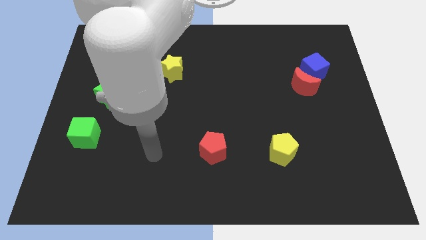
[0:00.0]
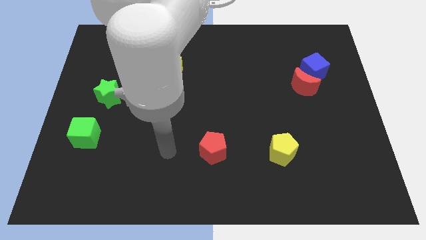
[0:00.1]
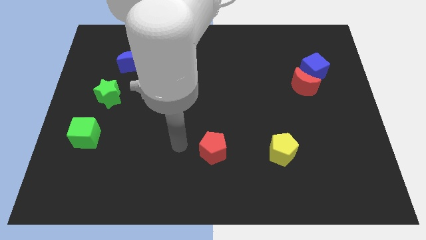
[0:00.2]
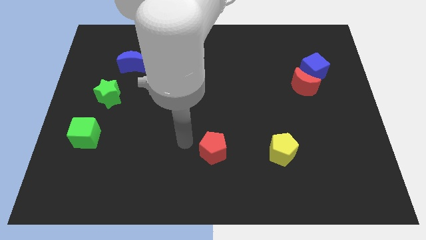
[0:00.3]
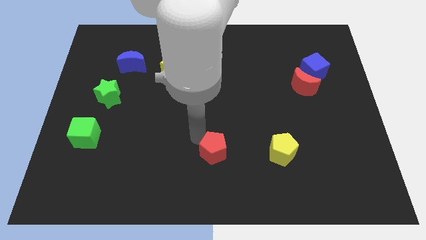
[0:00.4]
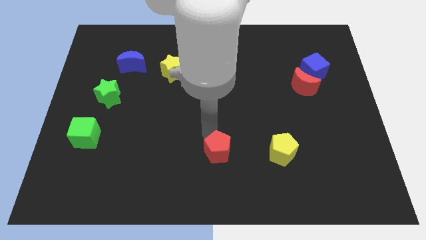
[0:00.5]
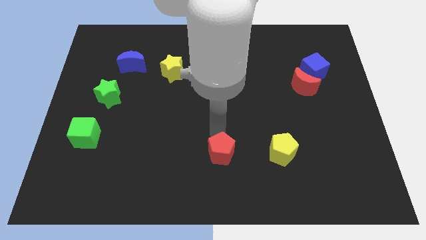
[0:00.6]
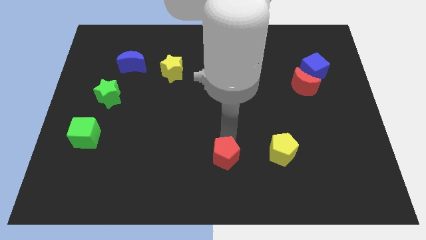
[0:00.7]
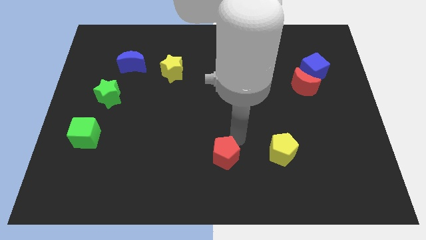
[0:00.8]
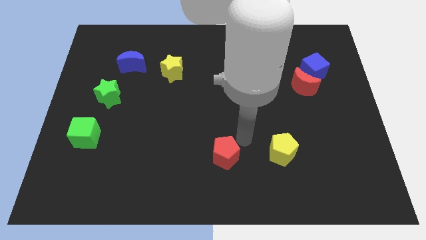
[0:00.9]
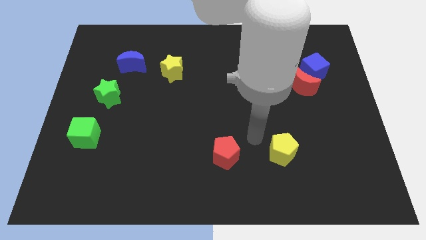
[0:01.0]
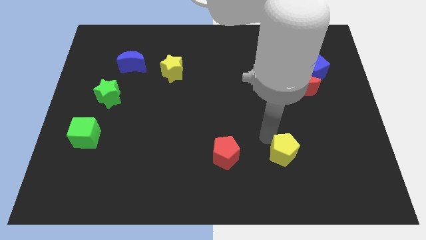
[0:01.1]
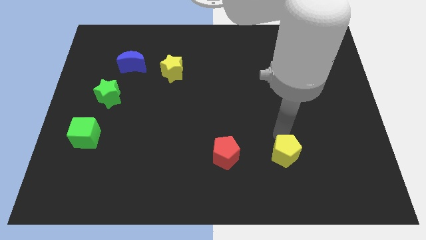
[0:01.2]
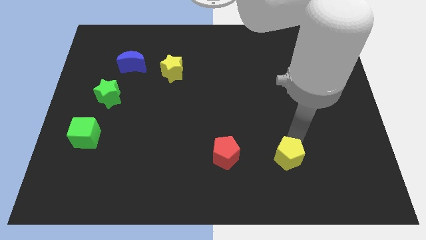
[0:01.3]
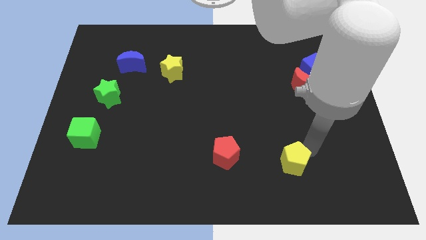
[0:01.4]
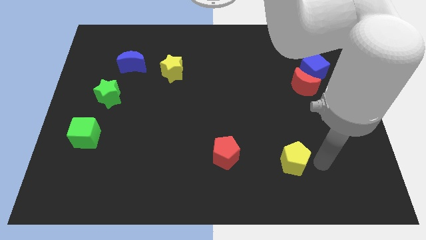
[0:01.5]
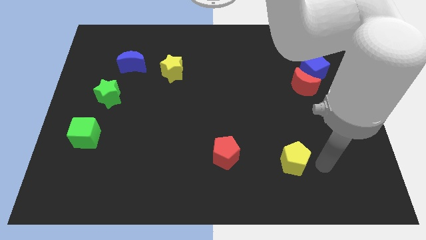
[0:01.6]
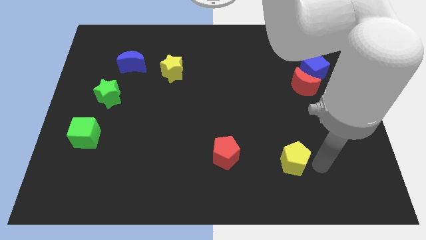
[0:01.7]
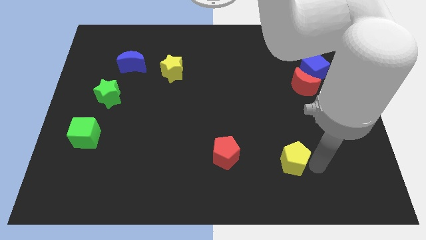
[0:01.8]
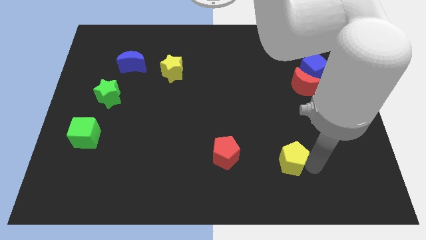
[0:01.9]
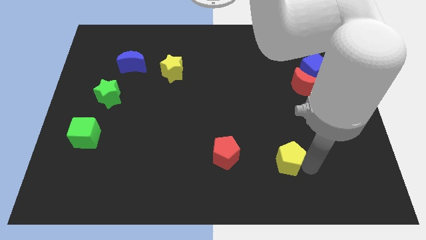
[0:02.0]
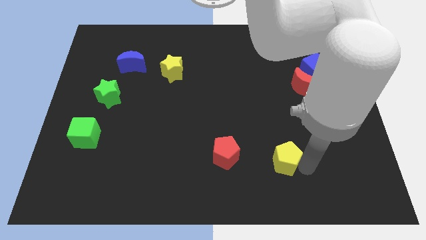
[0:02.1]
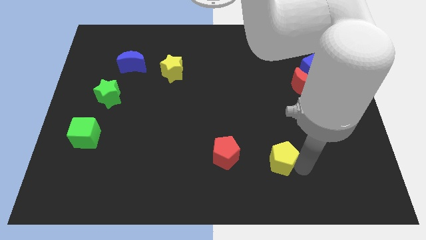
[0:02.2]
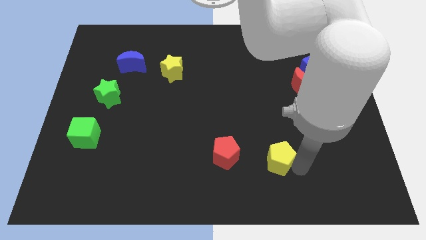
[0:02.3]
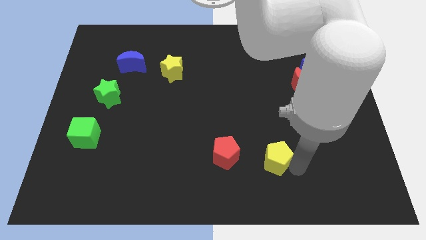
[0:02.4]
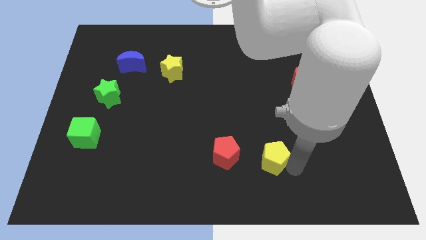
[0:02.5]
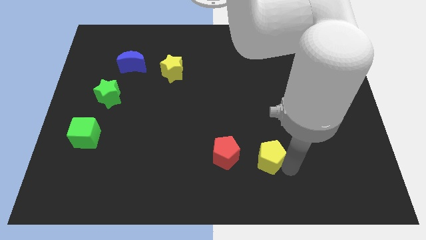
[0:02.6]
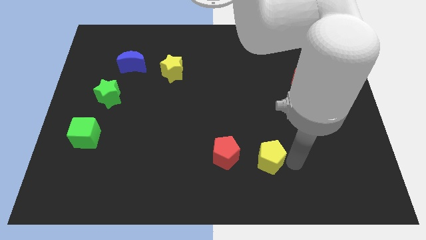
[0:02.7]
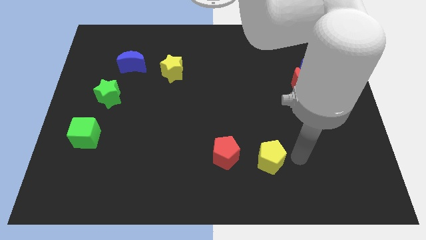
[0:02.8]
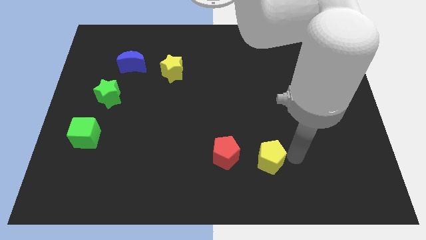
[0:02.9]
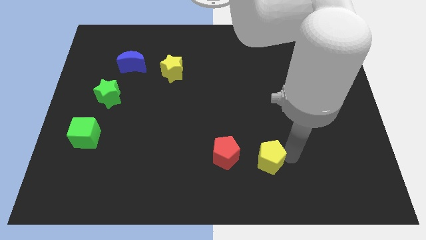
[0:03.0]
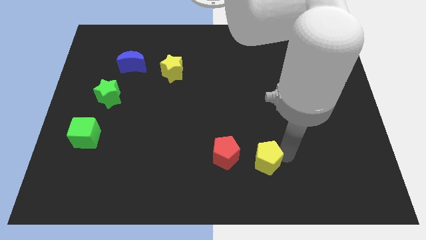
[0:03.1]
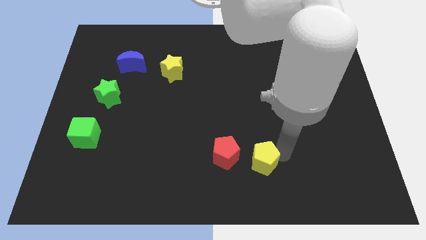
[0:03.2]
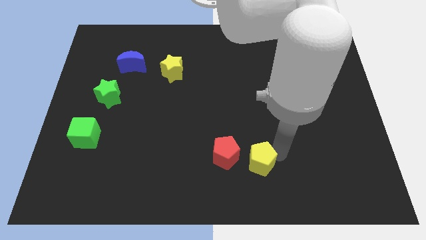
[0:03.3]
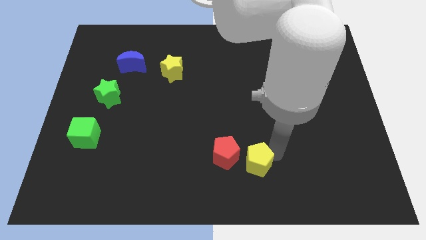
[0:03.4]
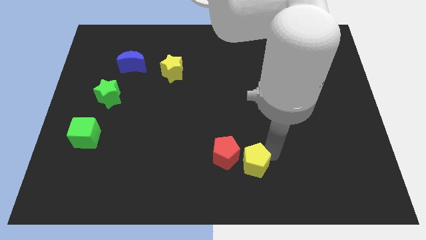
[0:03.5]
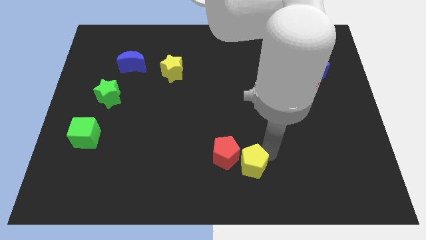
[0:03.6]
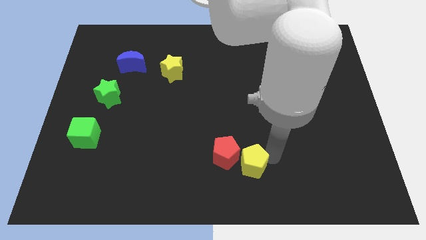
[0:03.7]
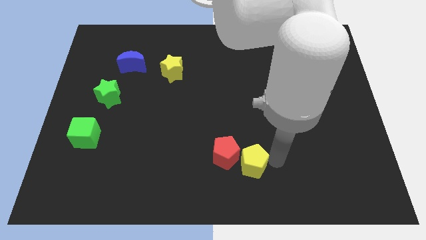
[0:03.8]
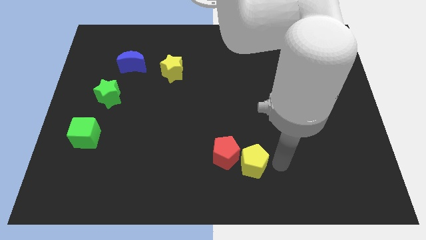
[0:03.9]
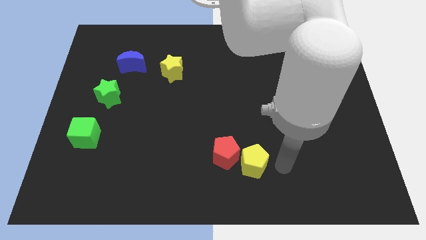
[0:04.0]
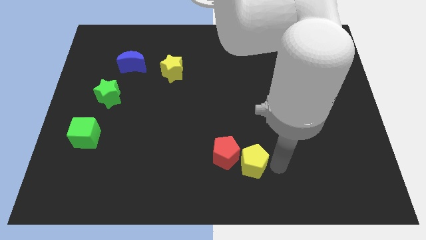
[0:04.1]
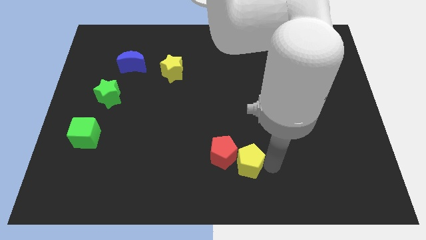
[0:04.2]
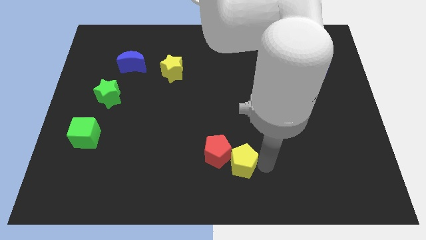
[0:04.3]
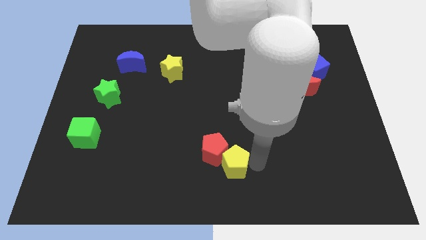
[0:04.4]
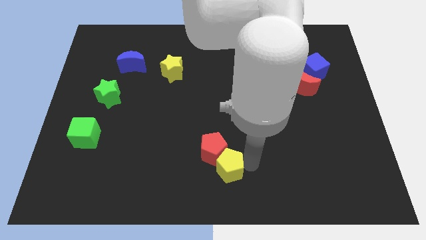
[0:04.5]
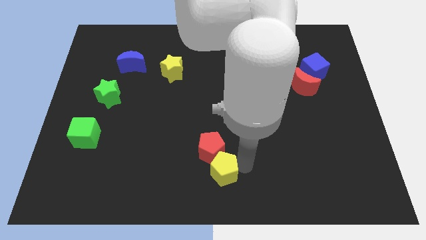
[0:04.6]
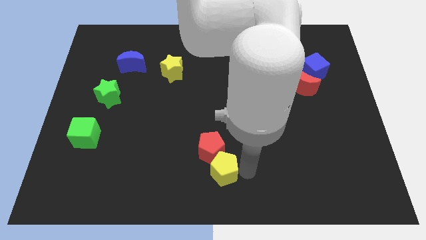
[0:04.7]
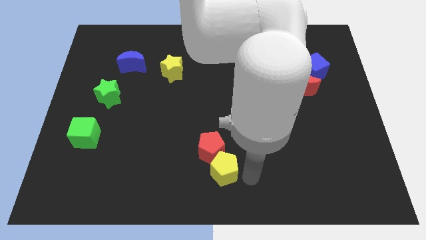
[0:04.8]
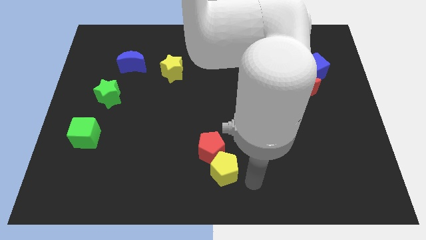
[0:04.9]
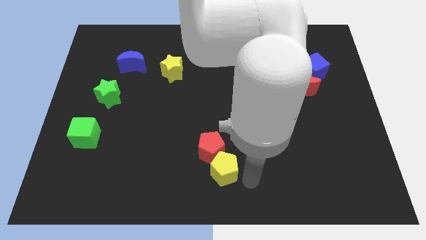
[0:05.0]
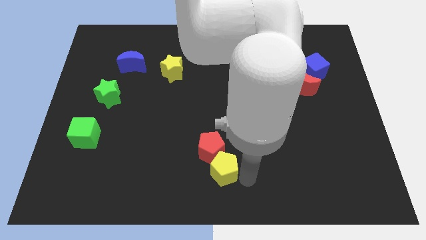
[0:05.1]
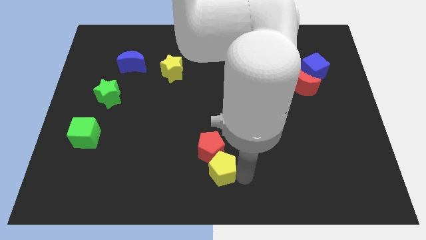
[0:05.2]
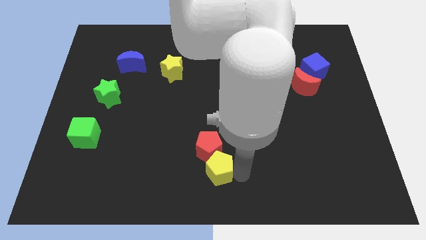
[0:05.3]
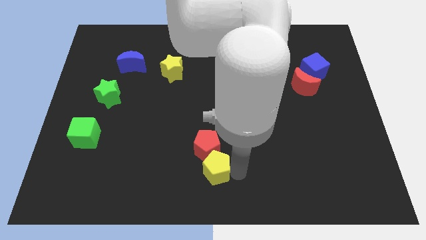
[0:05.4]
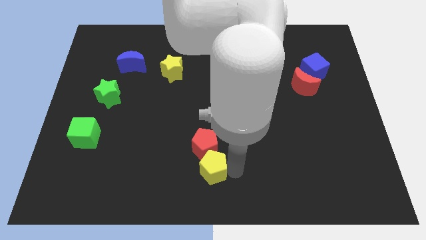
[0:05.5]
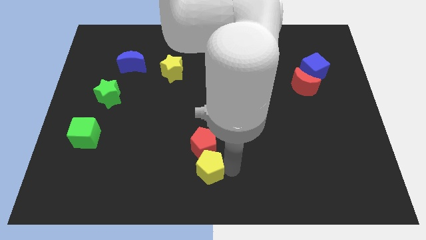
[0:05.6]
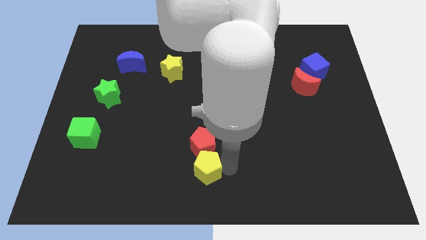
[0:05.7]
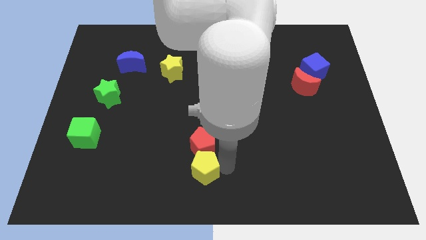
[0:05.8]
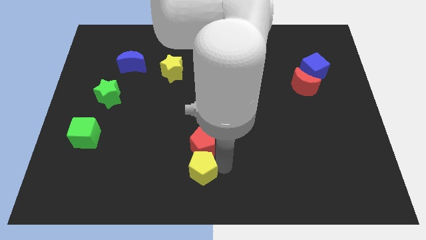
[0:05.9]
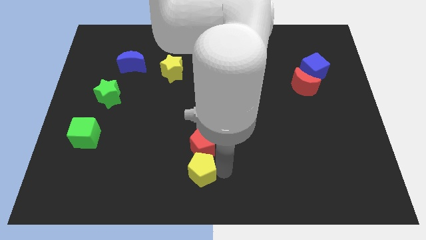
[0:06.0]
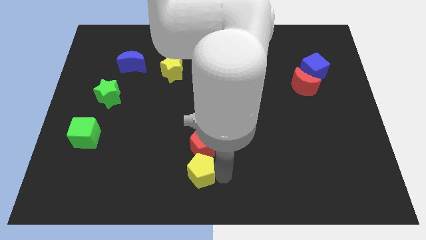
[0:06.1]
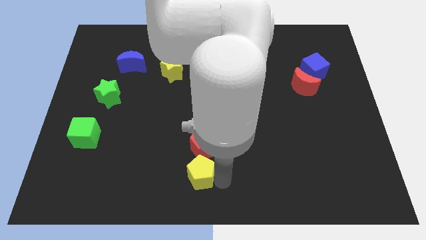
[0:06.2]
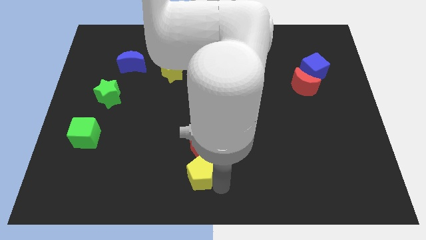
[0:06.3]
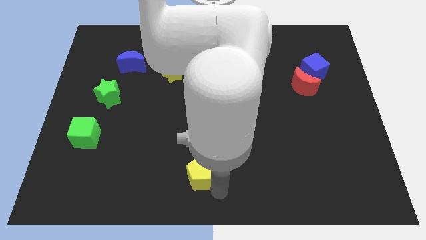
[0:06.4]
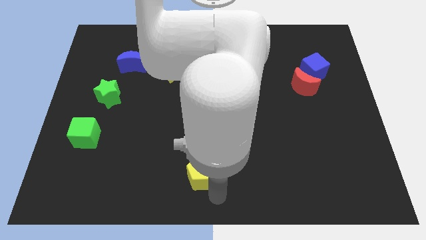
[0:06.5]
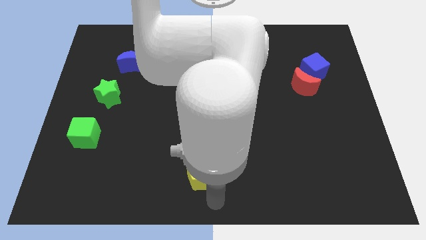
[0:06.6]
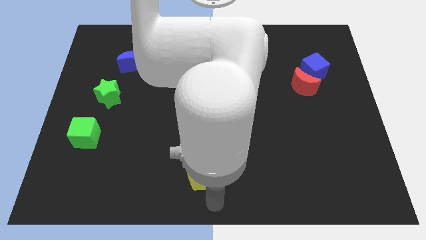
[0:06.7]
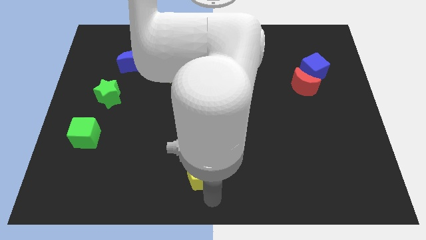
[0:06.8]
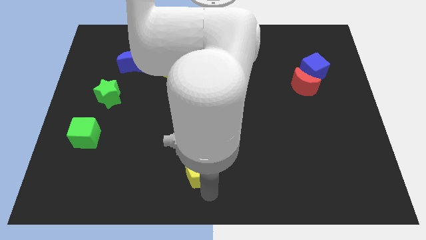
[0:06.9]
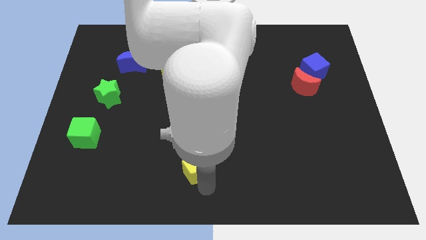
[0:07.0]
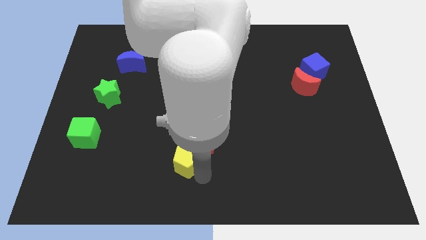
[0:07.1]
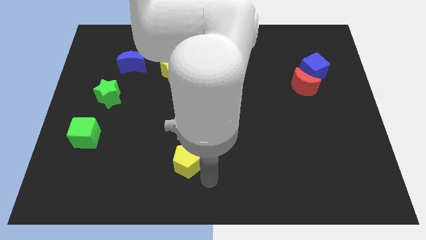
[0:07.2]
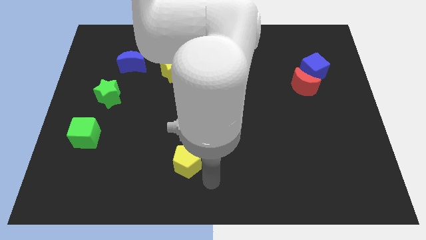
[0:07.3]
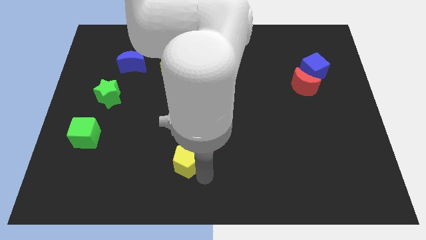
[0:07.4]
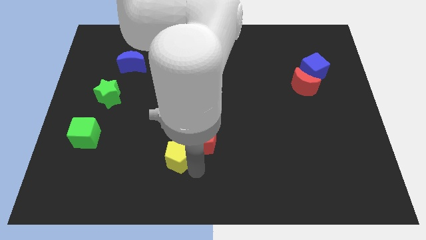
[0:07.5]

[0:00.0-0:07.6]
push the yellow pentagon to the left side of the red pentagon
